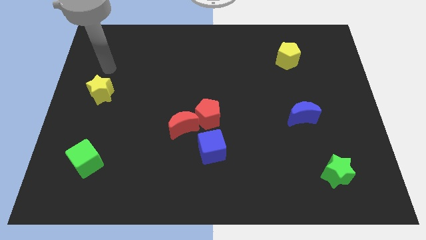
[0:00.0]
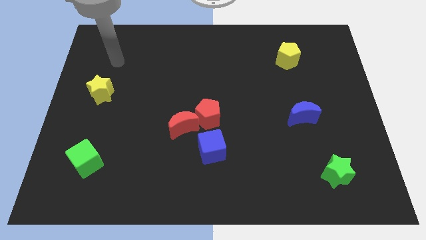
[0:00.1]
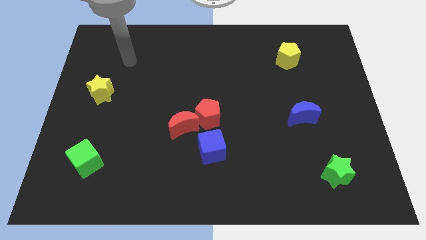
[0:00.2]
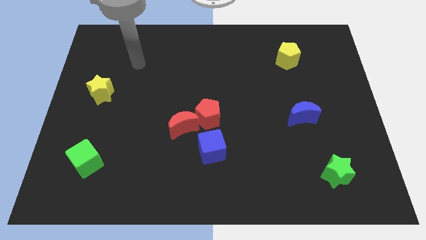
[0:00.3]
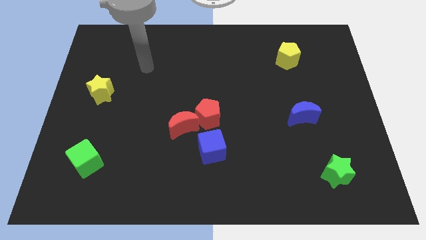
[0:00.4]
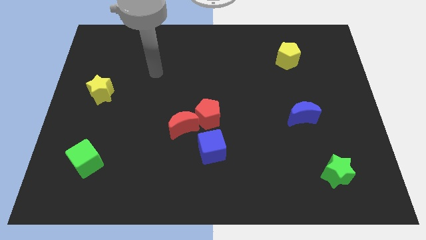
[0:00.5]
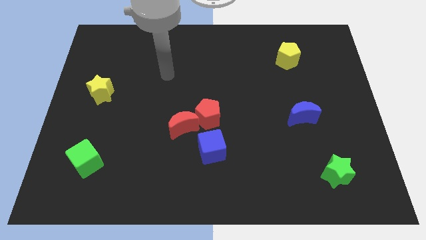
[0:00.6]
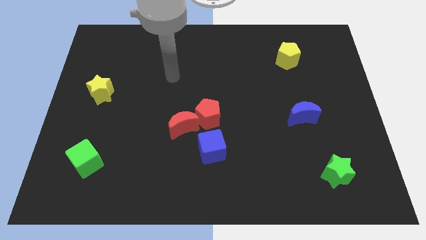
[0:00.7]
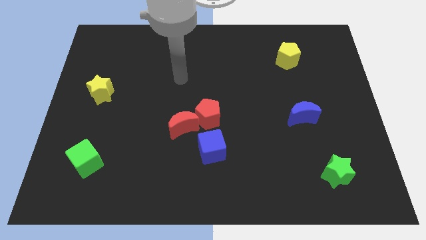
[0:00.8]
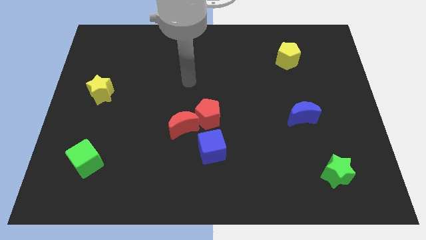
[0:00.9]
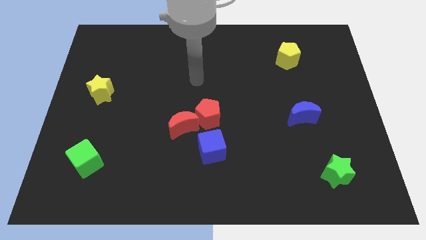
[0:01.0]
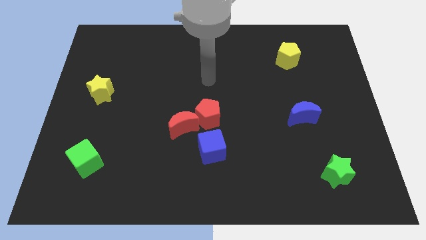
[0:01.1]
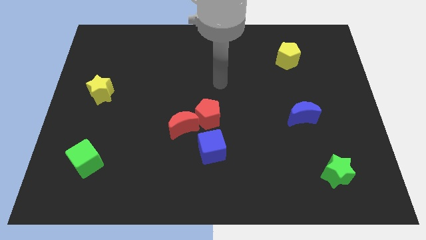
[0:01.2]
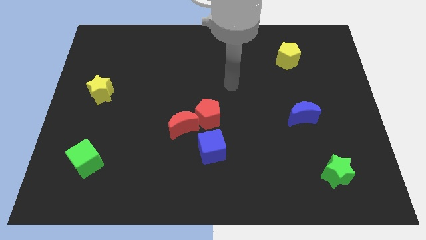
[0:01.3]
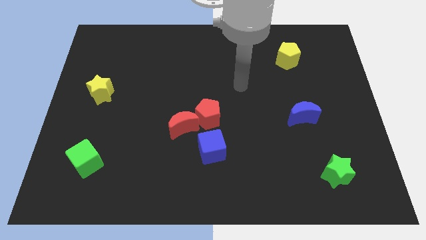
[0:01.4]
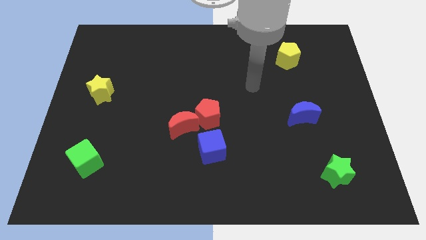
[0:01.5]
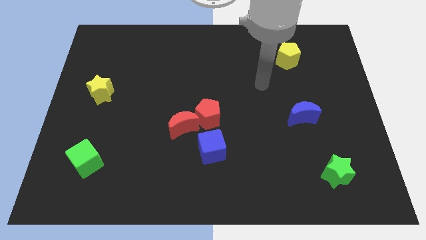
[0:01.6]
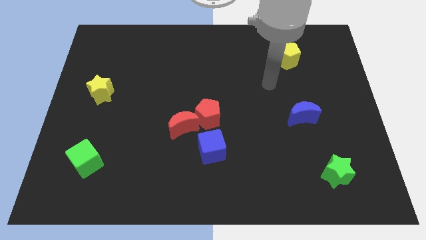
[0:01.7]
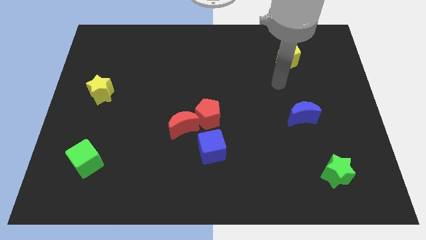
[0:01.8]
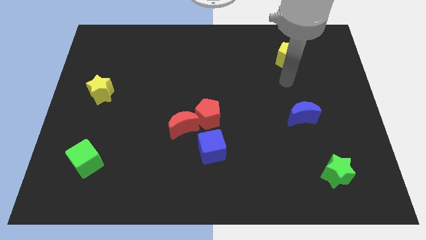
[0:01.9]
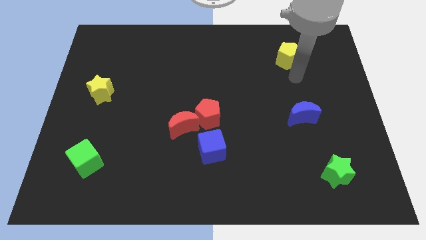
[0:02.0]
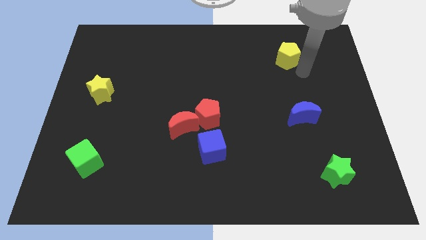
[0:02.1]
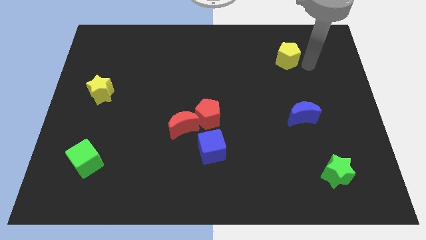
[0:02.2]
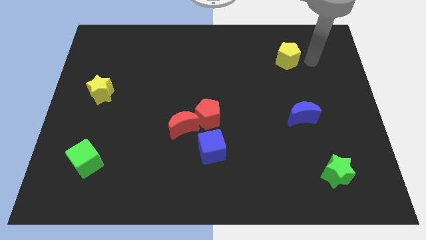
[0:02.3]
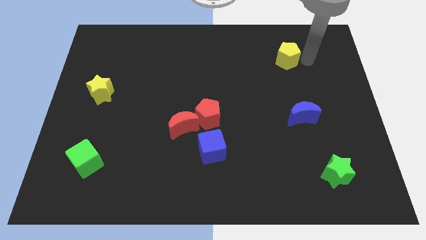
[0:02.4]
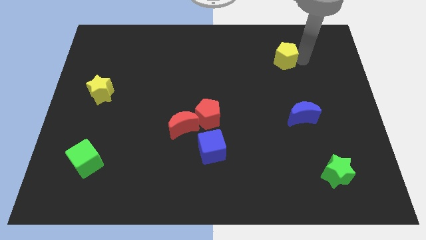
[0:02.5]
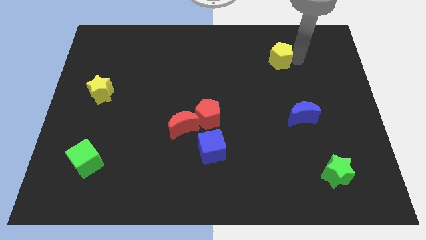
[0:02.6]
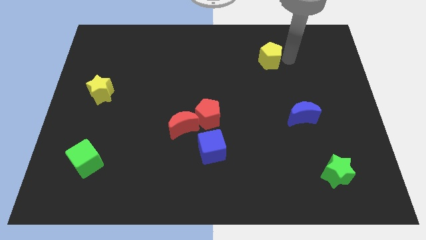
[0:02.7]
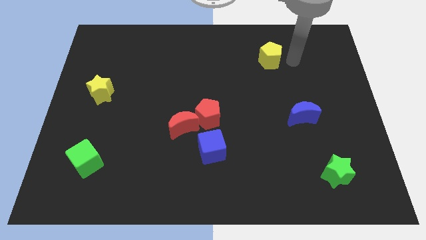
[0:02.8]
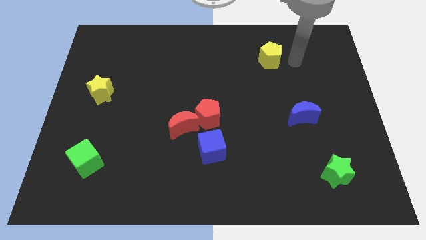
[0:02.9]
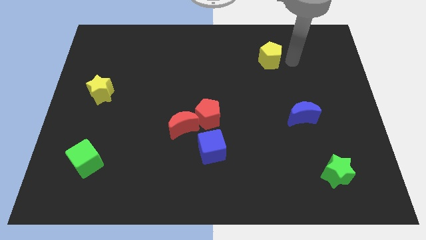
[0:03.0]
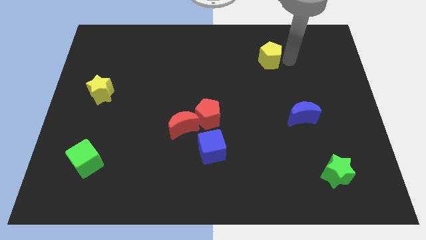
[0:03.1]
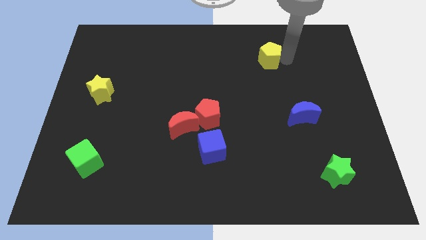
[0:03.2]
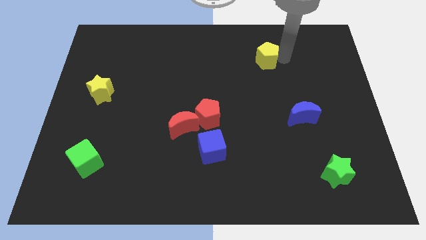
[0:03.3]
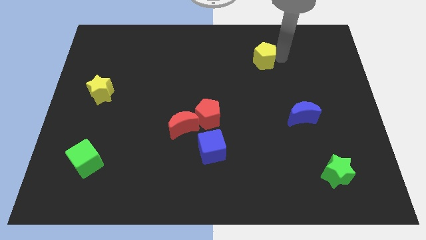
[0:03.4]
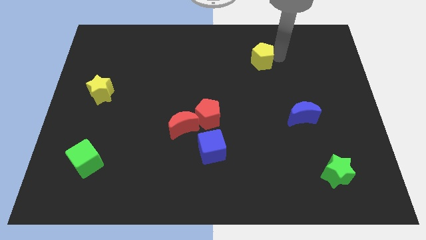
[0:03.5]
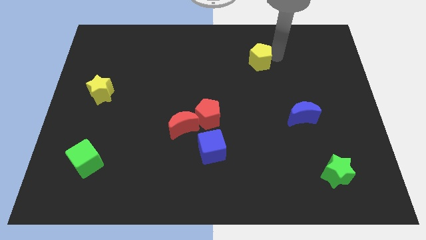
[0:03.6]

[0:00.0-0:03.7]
slightly move the yellow pentagon to the left

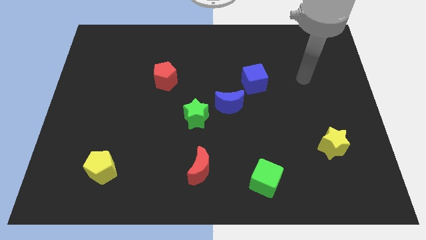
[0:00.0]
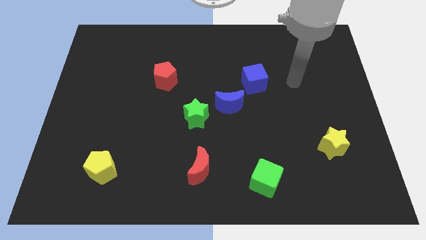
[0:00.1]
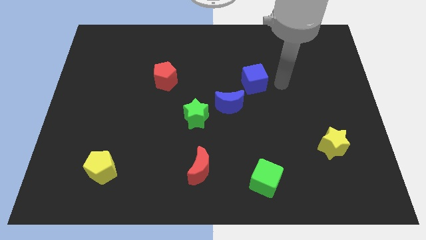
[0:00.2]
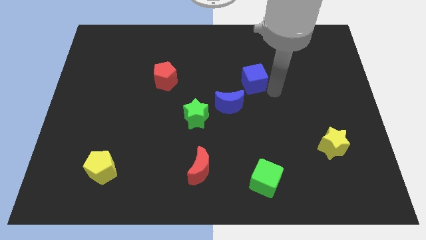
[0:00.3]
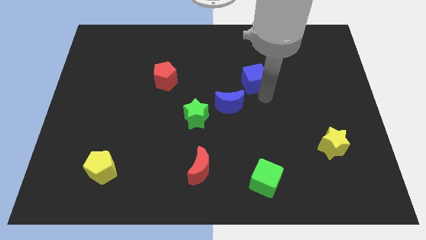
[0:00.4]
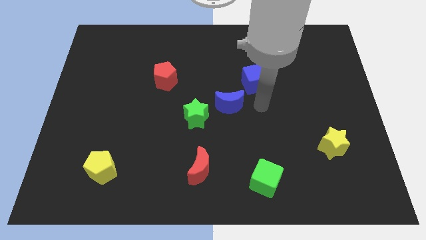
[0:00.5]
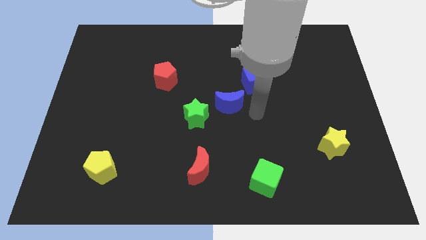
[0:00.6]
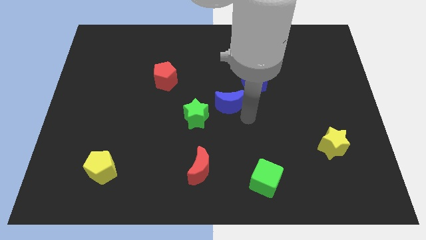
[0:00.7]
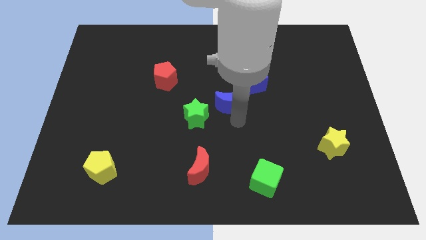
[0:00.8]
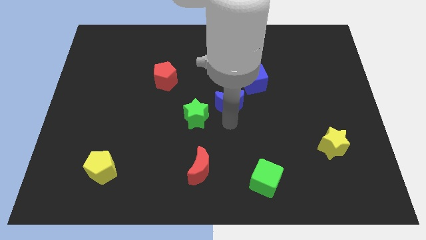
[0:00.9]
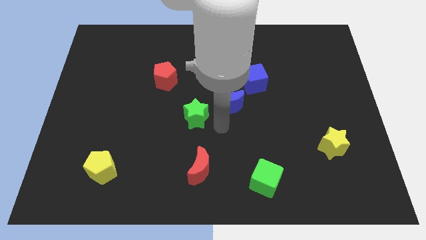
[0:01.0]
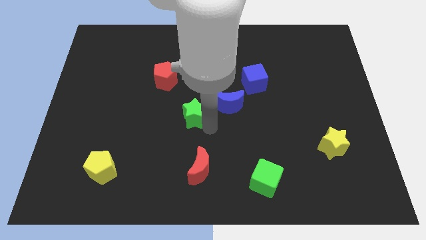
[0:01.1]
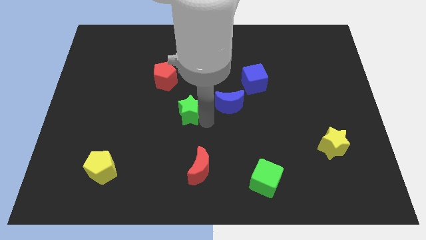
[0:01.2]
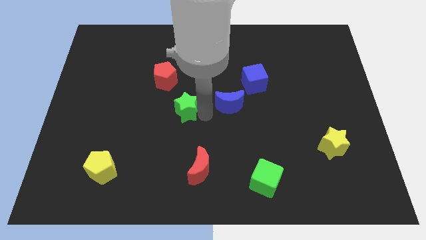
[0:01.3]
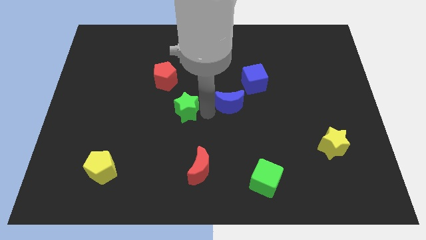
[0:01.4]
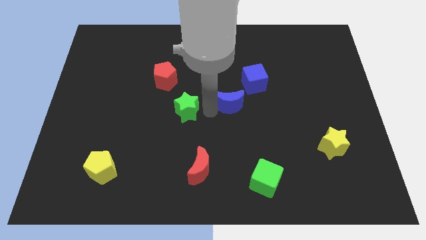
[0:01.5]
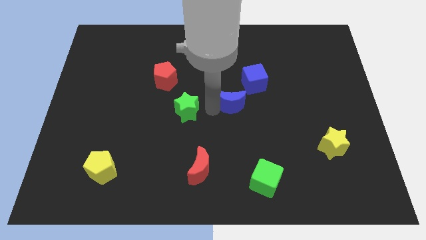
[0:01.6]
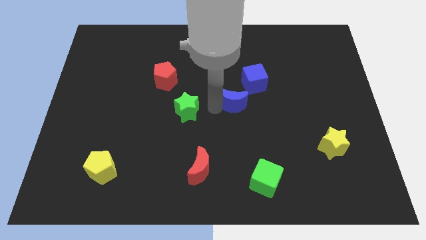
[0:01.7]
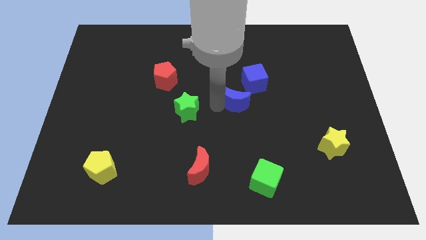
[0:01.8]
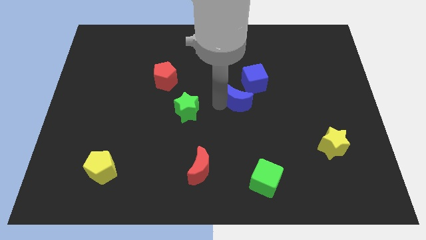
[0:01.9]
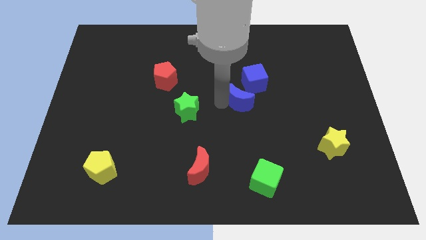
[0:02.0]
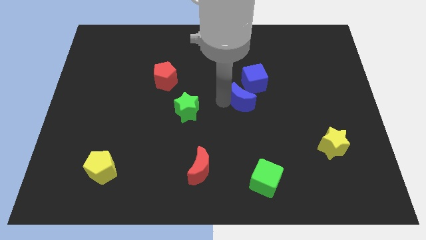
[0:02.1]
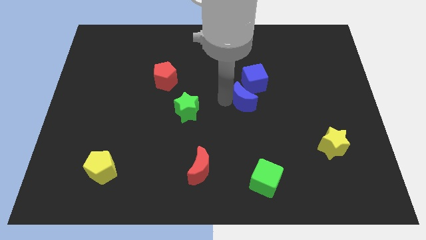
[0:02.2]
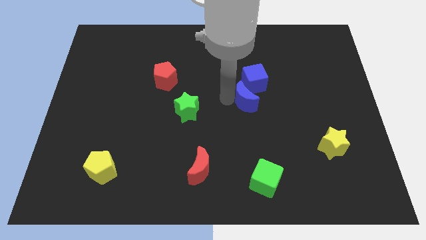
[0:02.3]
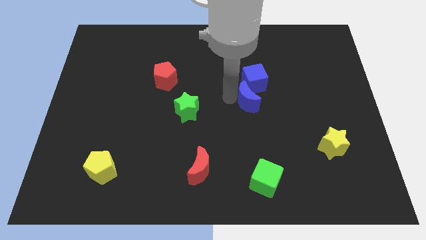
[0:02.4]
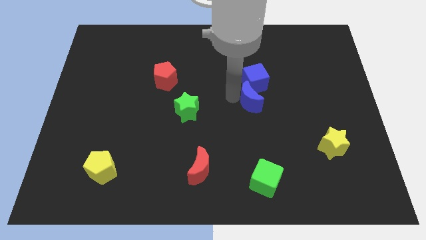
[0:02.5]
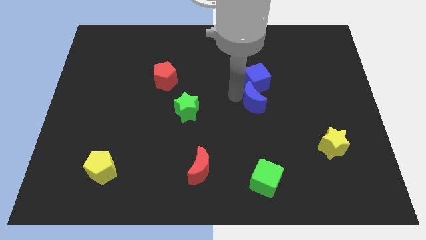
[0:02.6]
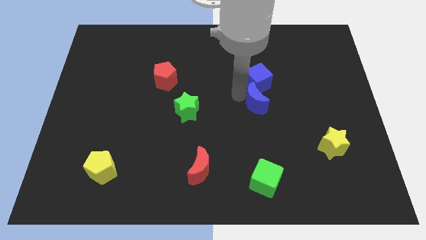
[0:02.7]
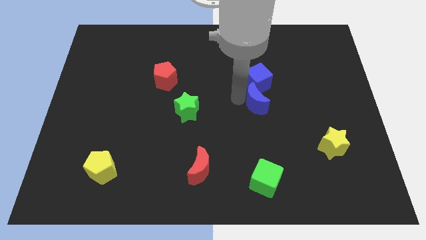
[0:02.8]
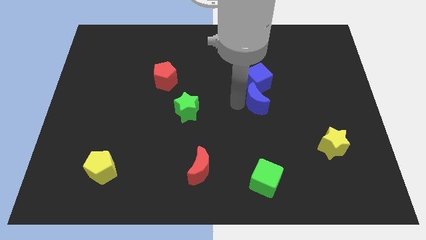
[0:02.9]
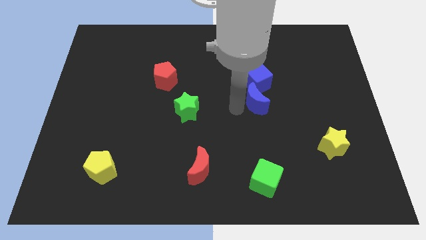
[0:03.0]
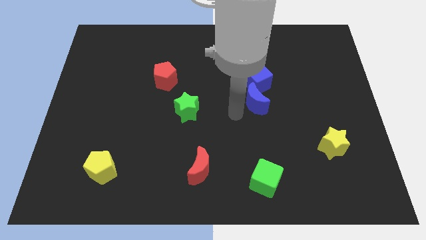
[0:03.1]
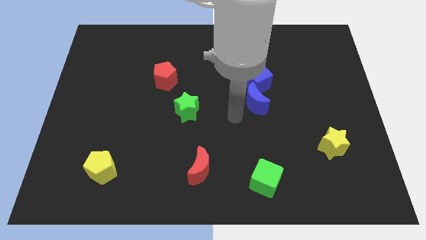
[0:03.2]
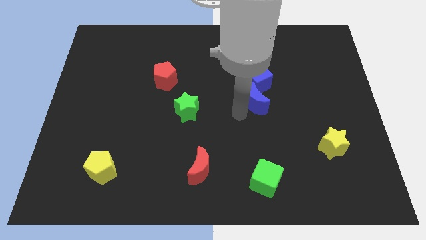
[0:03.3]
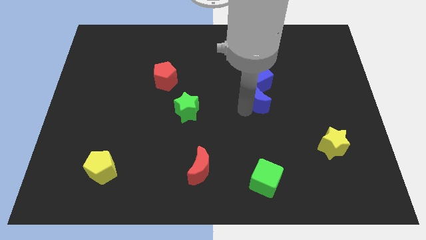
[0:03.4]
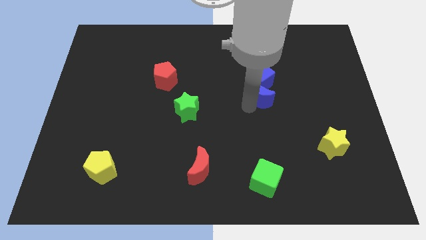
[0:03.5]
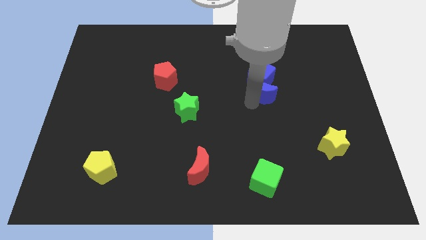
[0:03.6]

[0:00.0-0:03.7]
slightly push the blue moon up and to the right

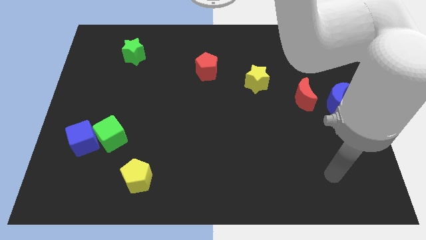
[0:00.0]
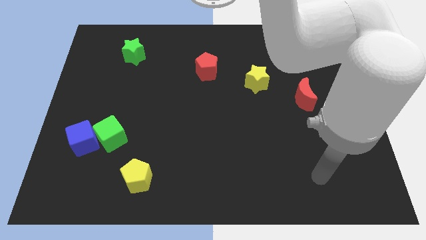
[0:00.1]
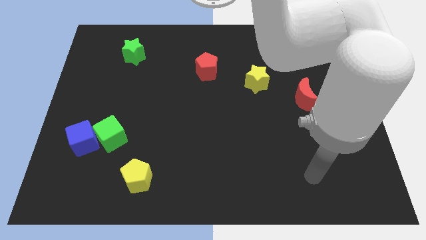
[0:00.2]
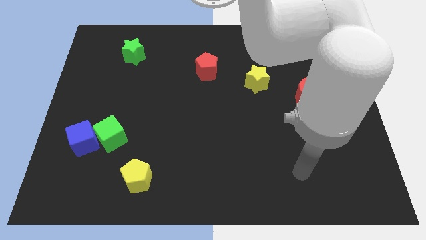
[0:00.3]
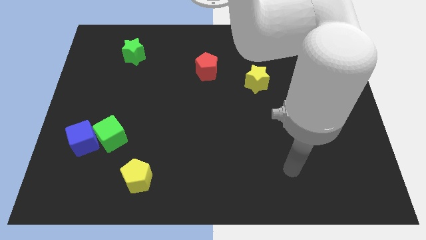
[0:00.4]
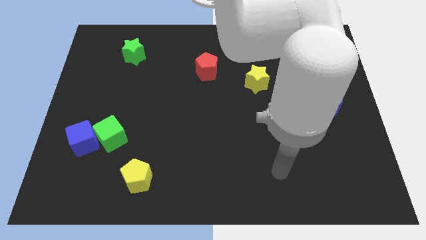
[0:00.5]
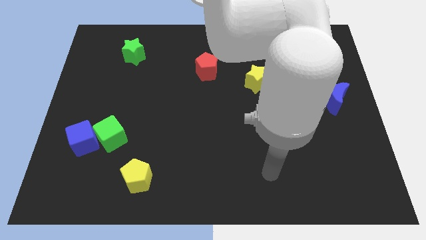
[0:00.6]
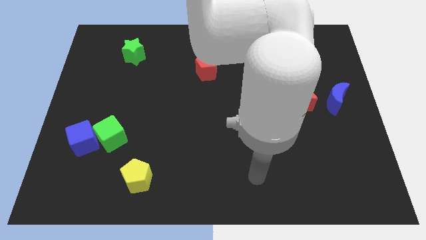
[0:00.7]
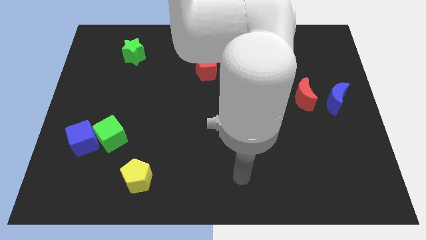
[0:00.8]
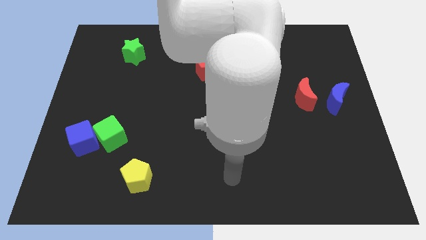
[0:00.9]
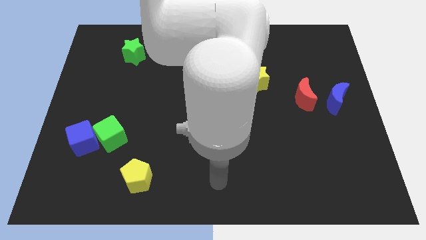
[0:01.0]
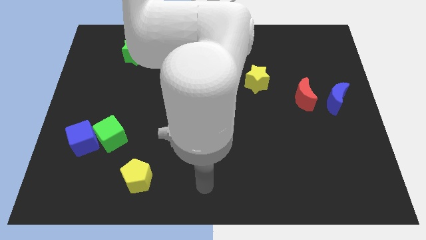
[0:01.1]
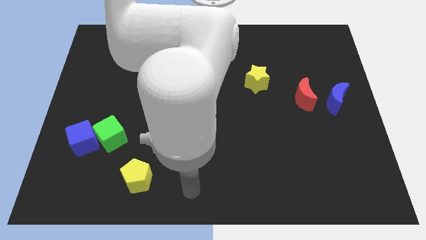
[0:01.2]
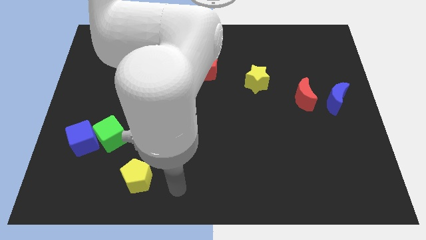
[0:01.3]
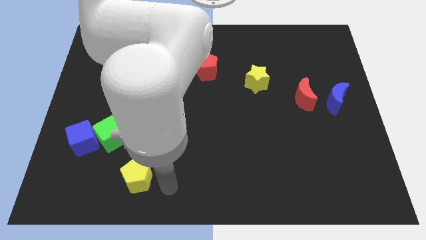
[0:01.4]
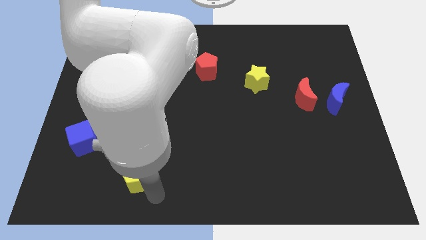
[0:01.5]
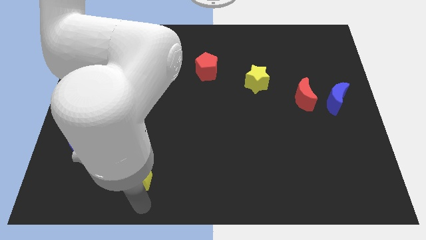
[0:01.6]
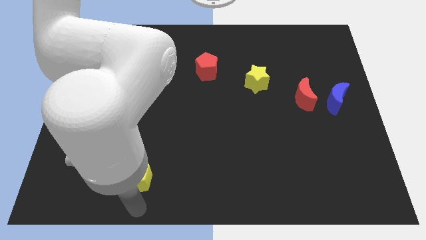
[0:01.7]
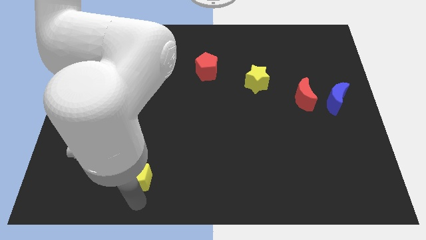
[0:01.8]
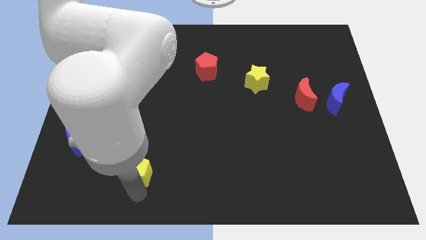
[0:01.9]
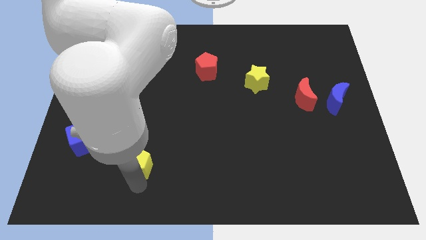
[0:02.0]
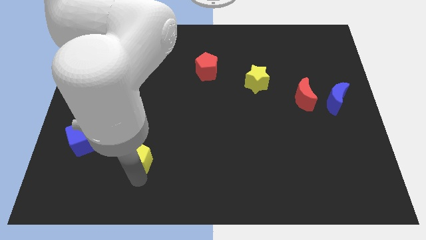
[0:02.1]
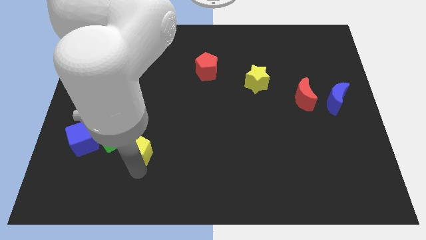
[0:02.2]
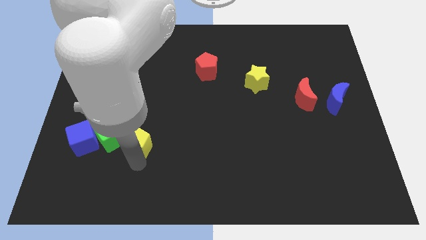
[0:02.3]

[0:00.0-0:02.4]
move the yellow pentagon a little bit upwards
